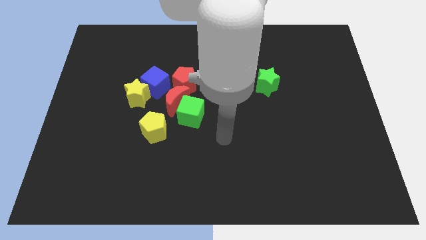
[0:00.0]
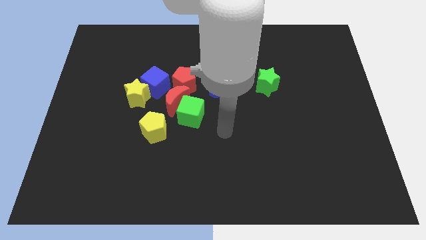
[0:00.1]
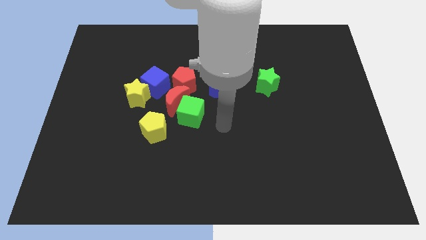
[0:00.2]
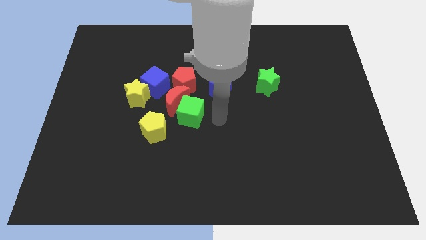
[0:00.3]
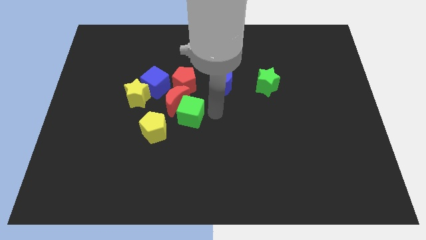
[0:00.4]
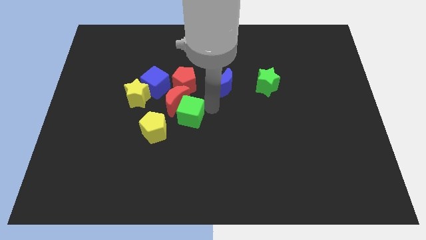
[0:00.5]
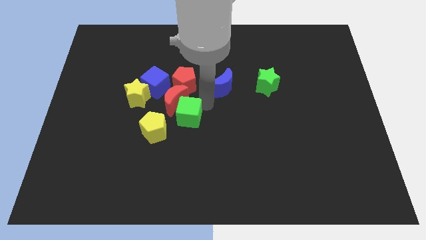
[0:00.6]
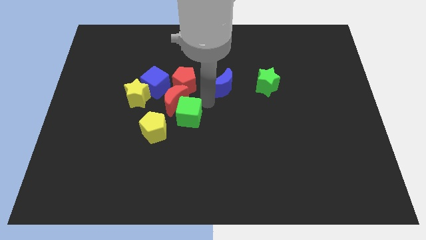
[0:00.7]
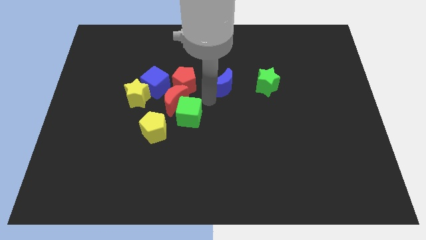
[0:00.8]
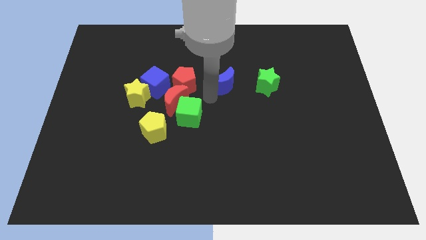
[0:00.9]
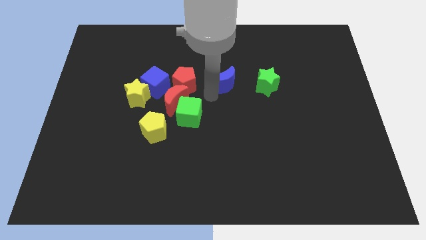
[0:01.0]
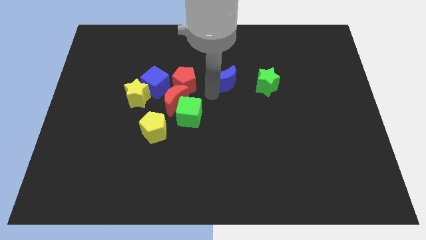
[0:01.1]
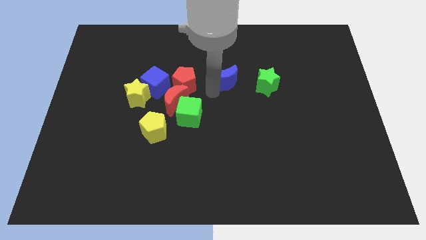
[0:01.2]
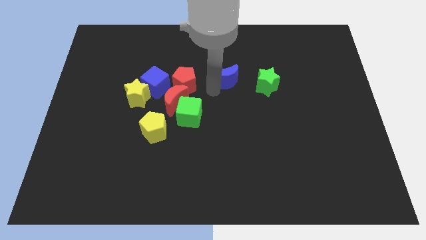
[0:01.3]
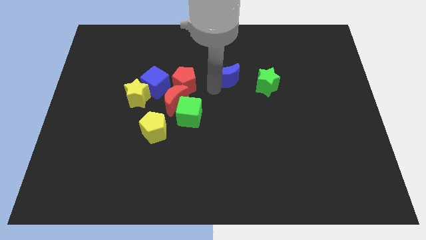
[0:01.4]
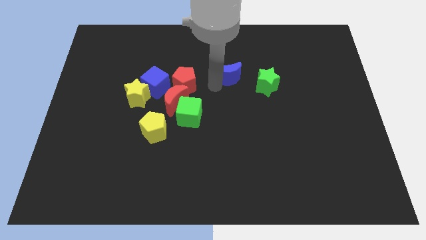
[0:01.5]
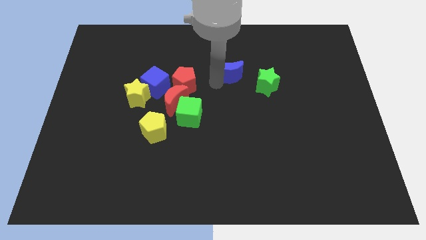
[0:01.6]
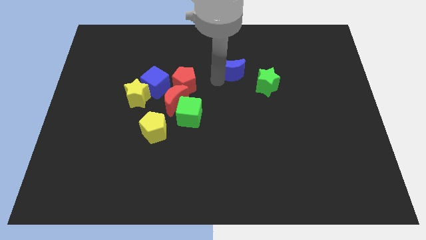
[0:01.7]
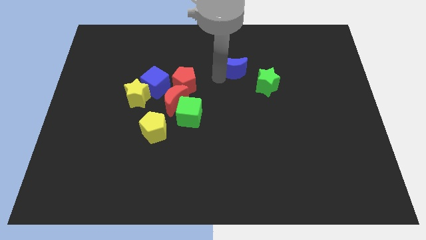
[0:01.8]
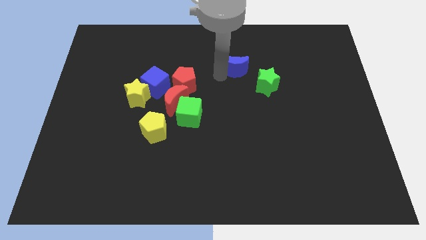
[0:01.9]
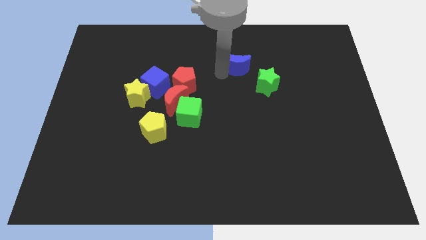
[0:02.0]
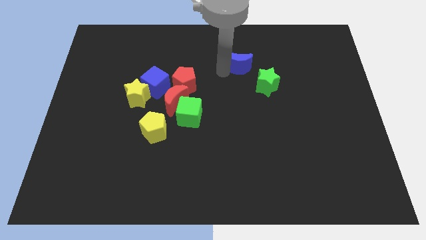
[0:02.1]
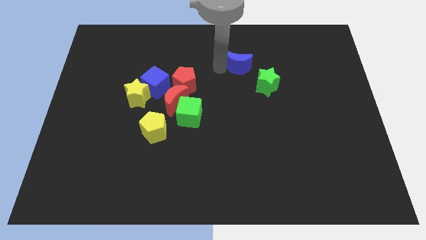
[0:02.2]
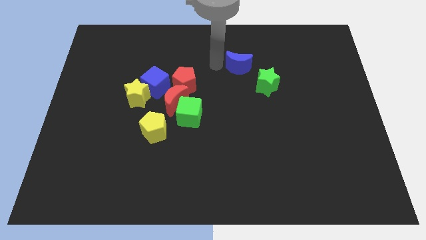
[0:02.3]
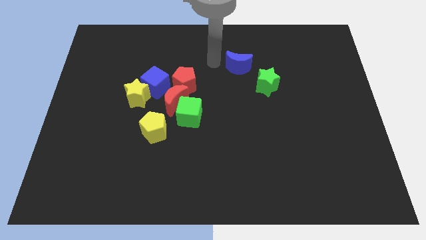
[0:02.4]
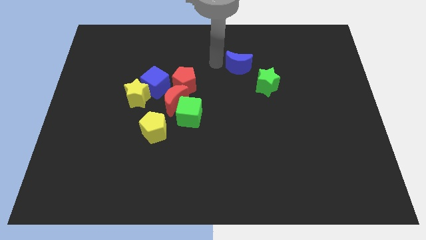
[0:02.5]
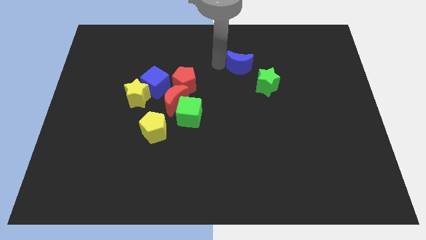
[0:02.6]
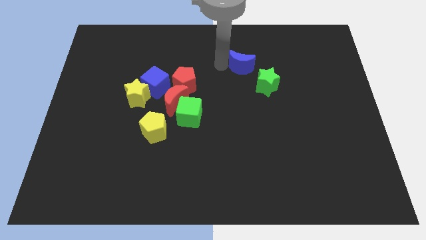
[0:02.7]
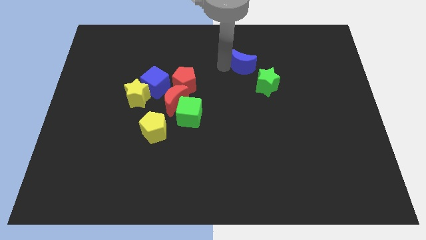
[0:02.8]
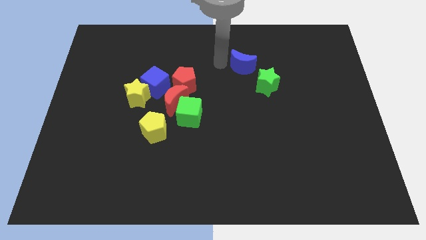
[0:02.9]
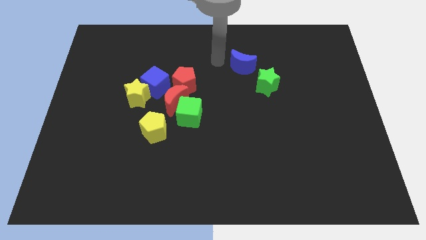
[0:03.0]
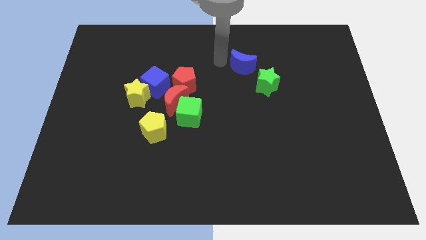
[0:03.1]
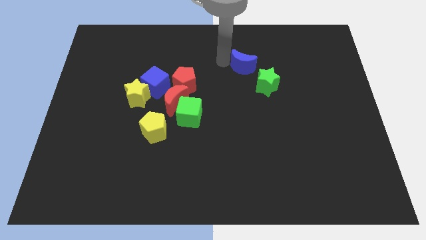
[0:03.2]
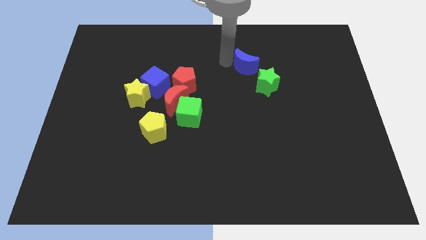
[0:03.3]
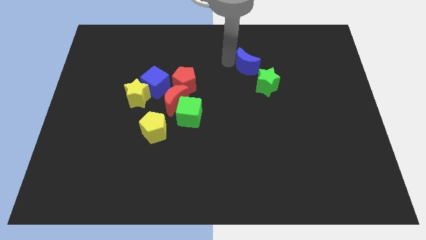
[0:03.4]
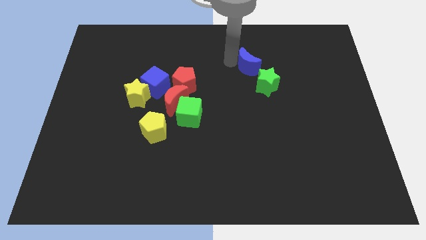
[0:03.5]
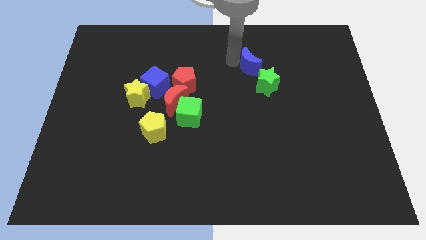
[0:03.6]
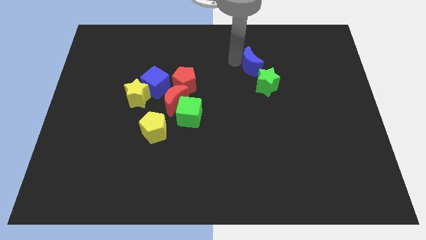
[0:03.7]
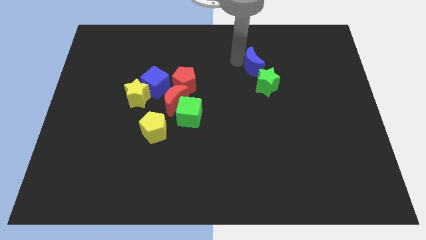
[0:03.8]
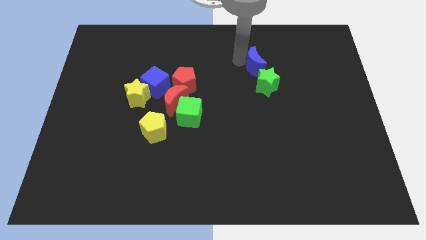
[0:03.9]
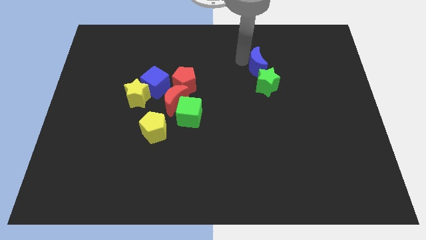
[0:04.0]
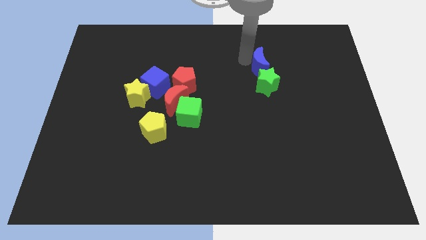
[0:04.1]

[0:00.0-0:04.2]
slide the blue moon a little bit right

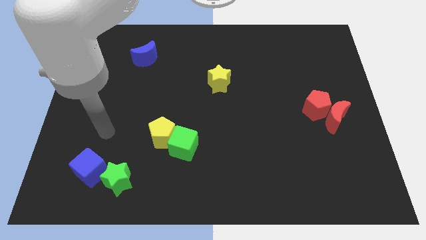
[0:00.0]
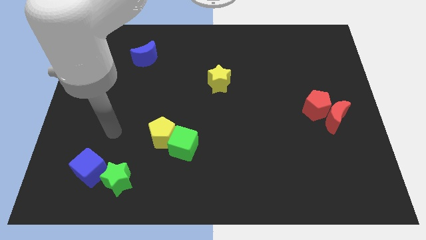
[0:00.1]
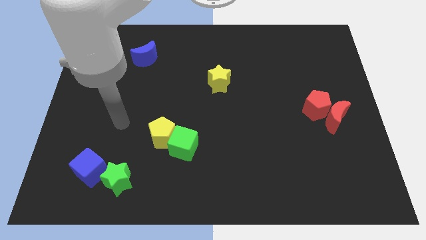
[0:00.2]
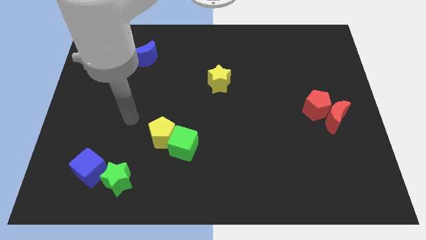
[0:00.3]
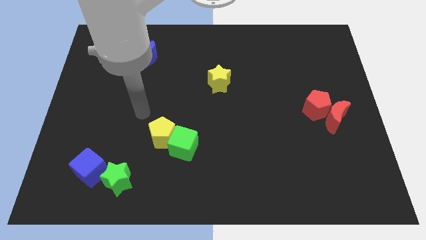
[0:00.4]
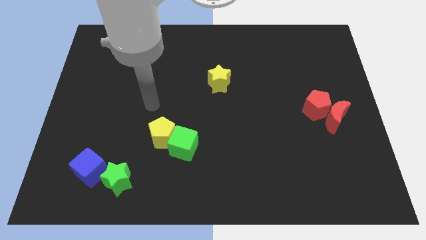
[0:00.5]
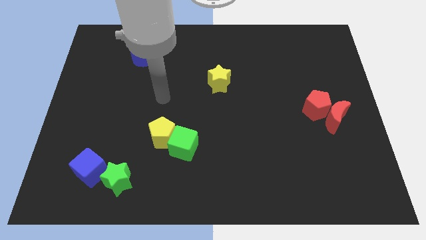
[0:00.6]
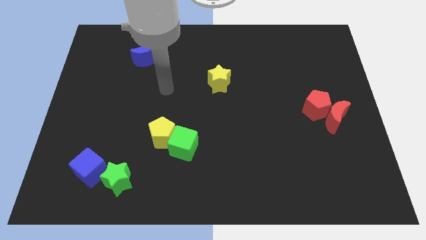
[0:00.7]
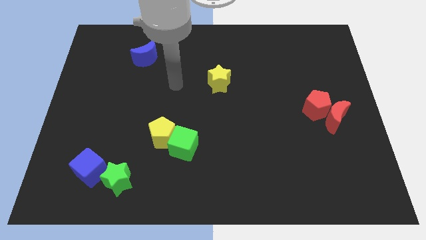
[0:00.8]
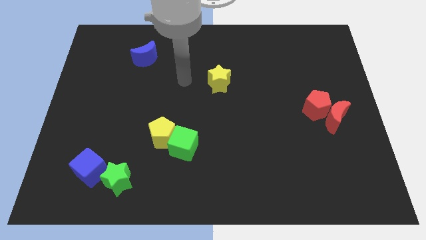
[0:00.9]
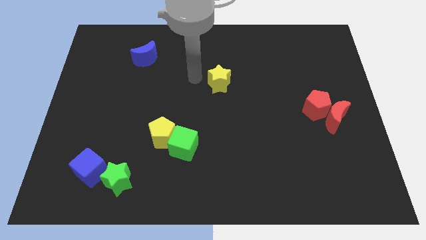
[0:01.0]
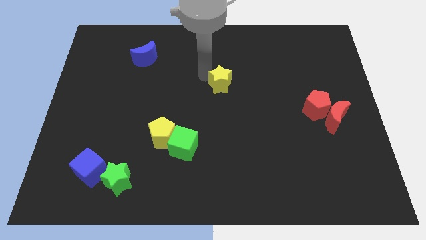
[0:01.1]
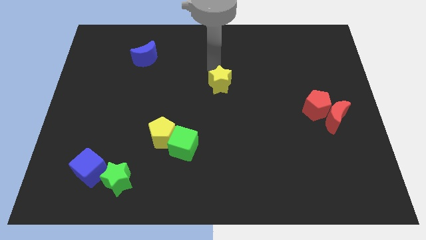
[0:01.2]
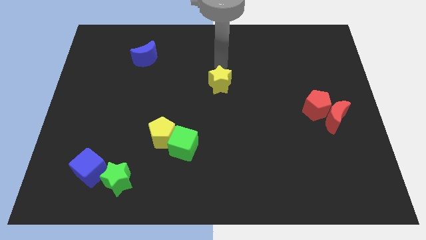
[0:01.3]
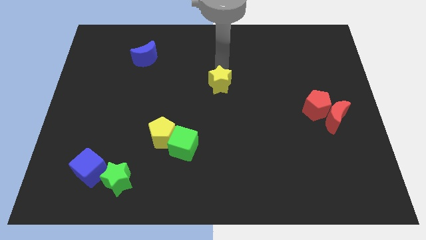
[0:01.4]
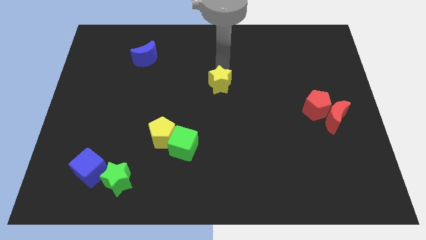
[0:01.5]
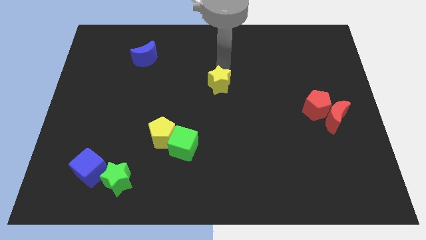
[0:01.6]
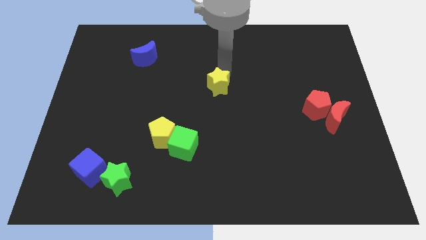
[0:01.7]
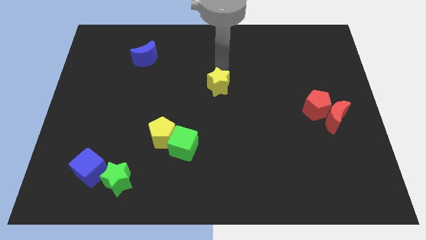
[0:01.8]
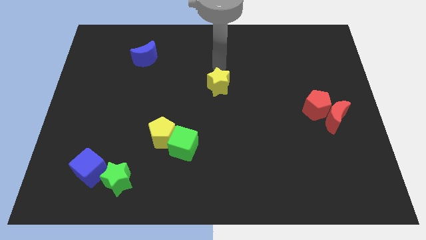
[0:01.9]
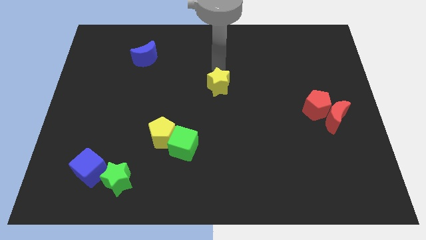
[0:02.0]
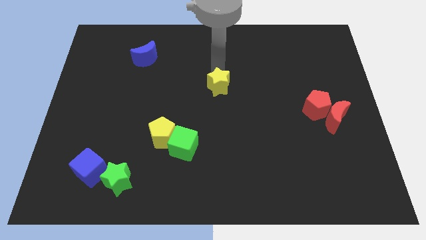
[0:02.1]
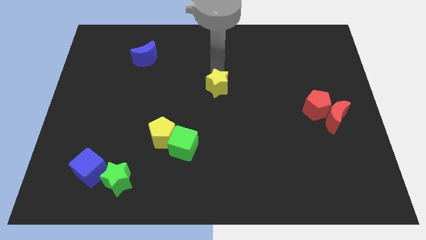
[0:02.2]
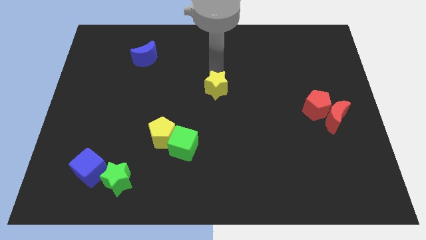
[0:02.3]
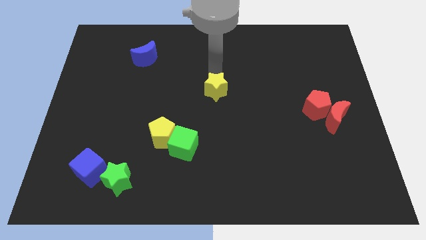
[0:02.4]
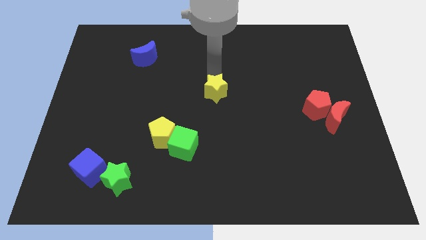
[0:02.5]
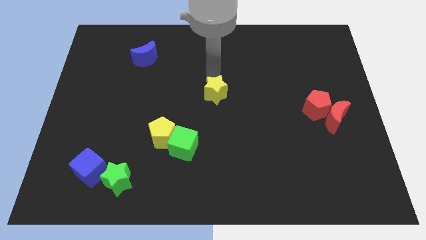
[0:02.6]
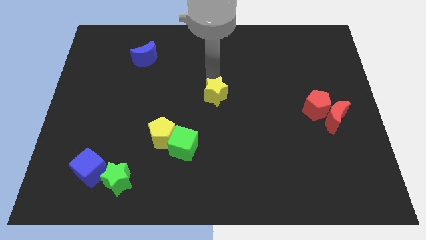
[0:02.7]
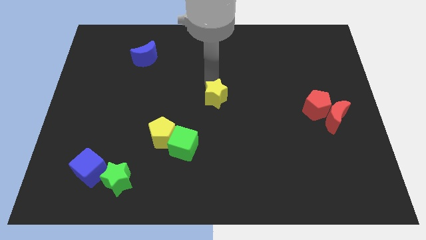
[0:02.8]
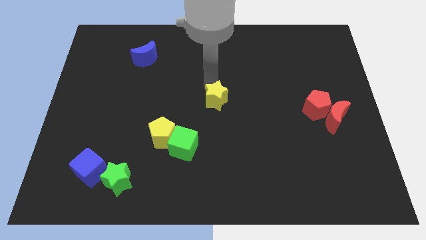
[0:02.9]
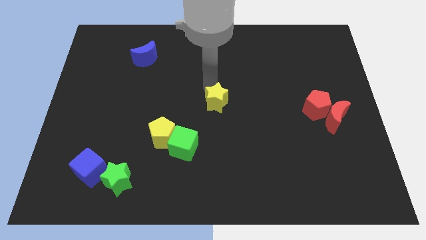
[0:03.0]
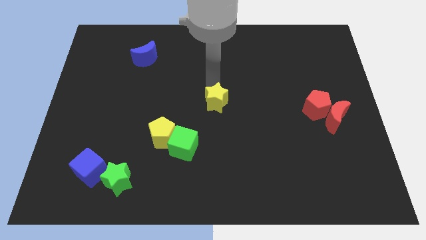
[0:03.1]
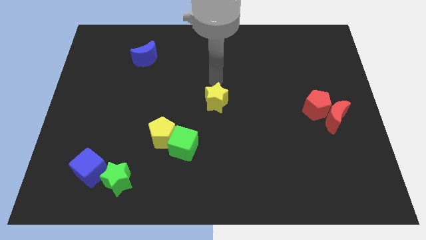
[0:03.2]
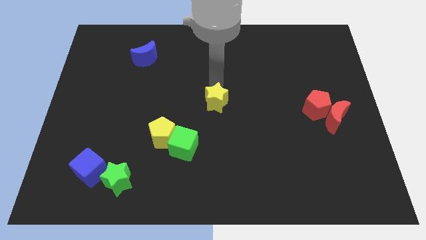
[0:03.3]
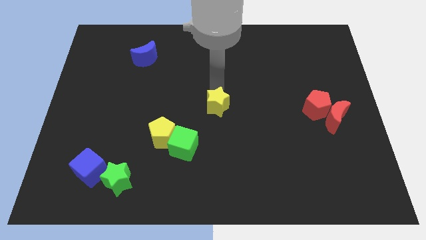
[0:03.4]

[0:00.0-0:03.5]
slightly move the yellow star downwards

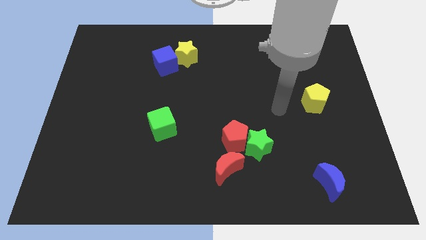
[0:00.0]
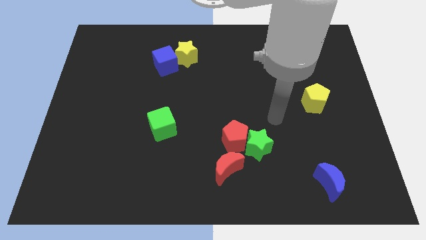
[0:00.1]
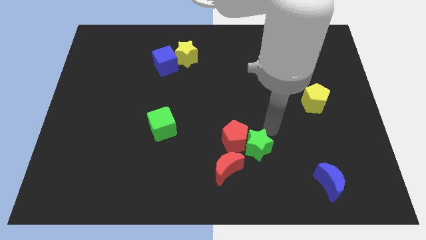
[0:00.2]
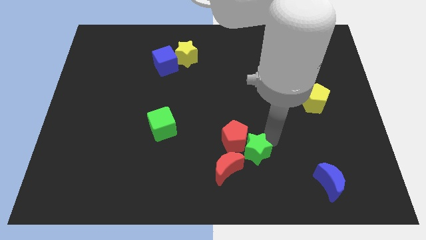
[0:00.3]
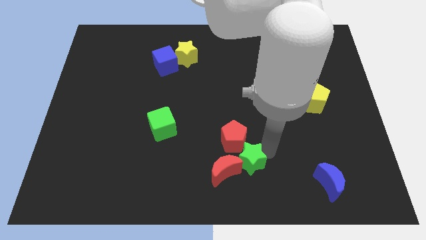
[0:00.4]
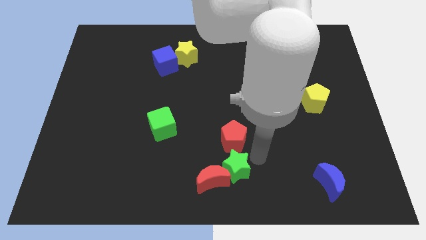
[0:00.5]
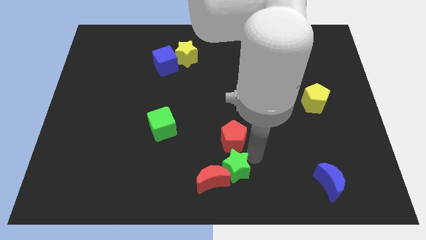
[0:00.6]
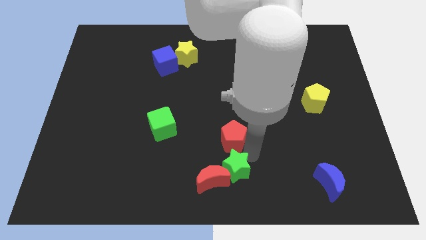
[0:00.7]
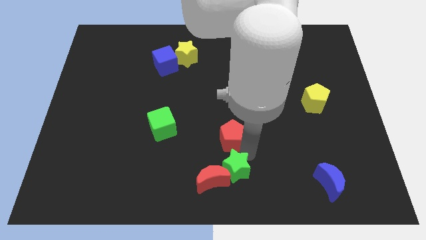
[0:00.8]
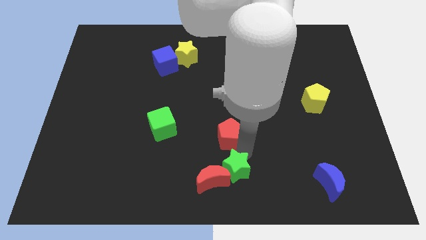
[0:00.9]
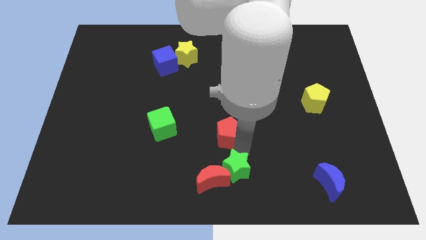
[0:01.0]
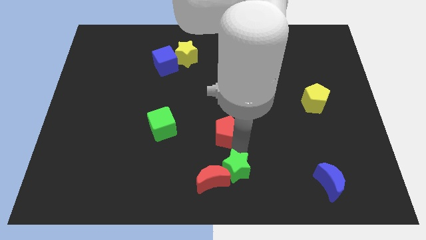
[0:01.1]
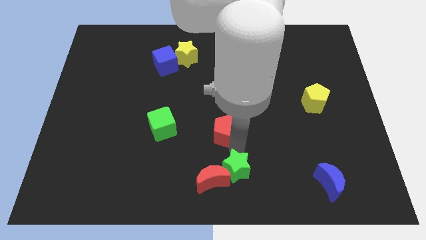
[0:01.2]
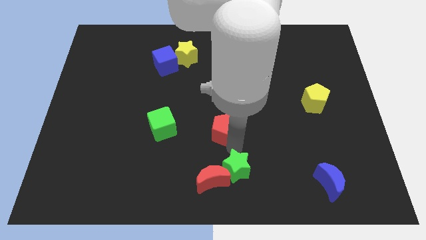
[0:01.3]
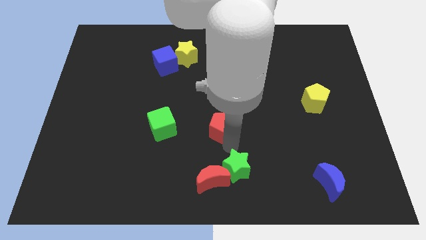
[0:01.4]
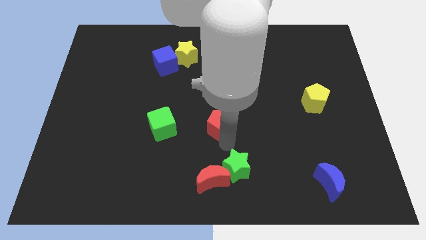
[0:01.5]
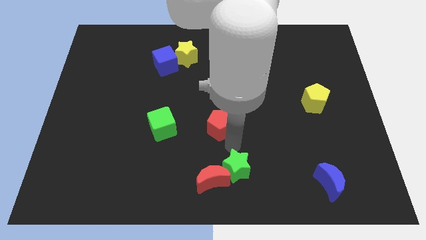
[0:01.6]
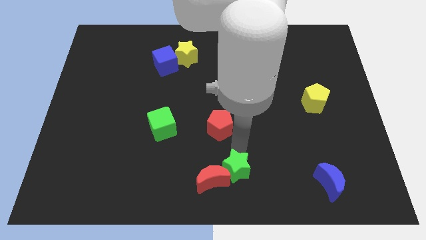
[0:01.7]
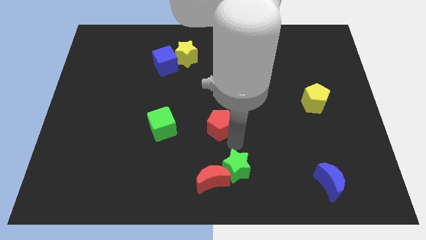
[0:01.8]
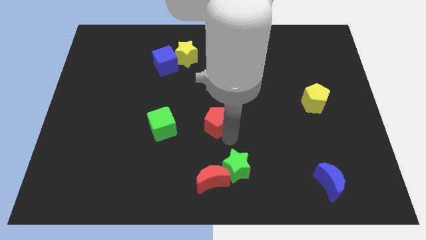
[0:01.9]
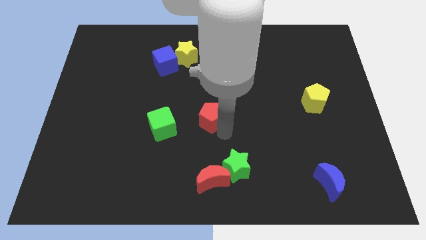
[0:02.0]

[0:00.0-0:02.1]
move the red pentagon diagonally upwards and left a little bit
